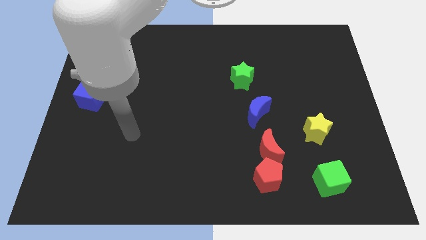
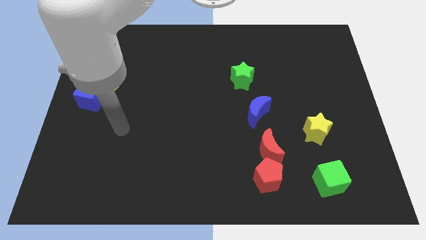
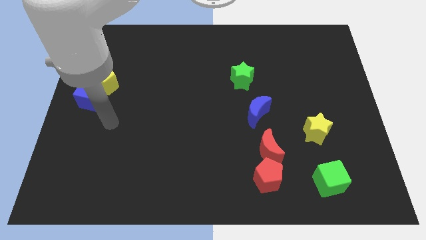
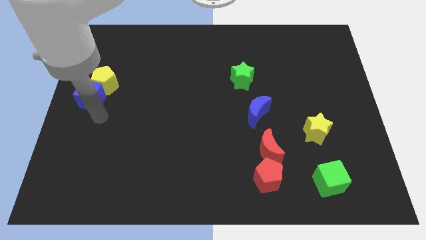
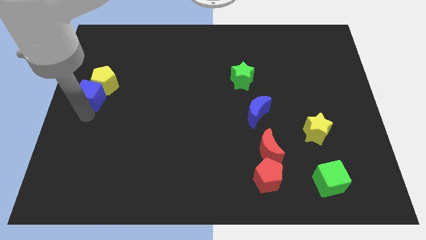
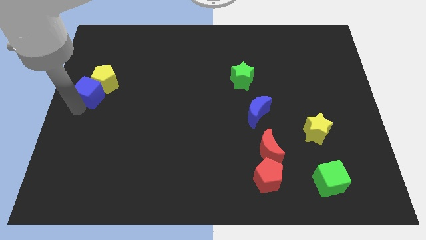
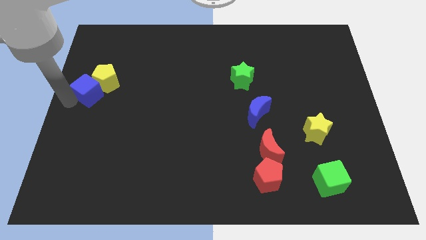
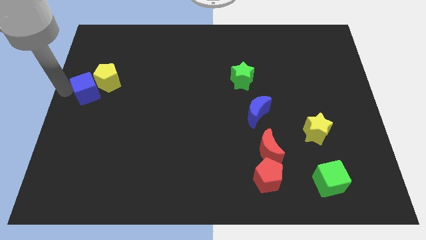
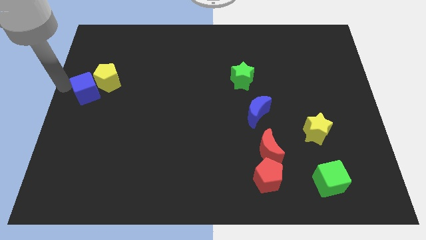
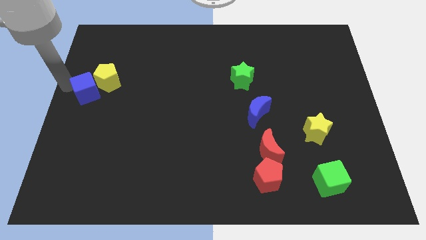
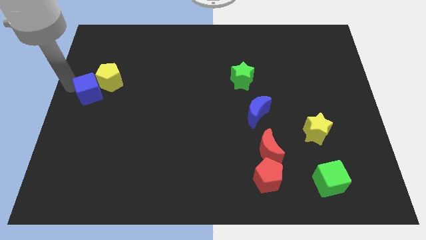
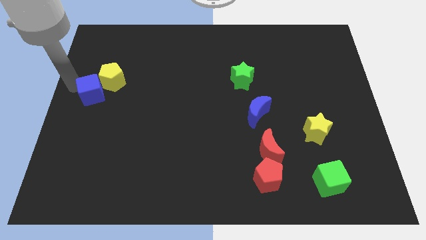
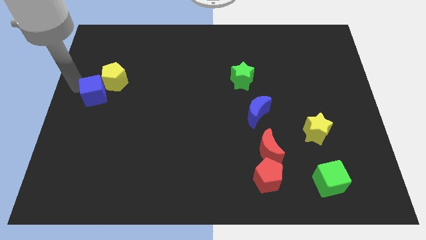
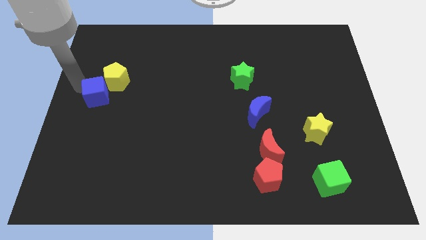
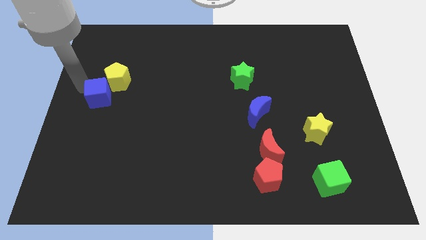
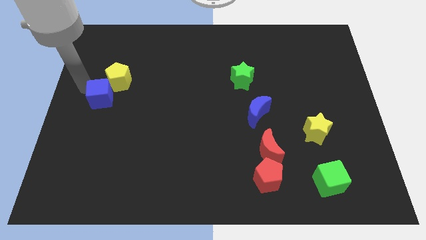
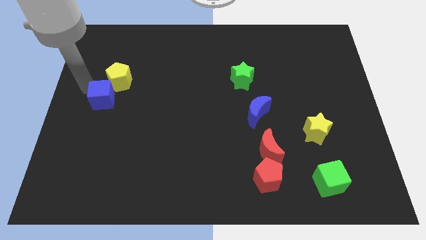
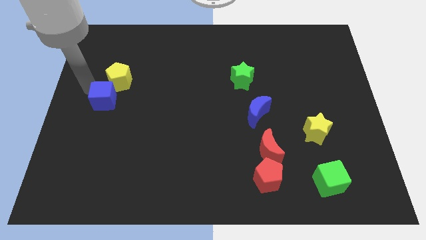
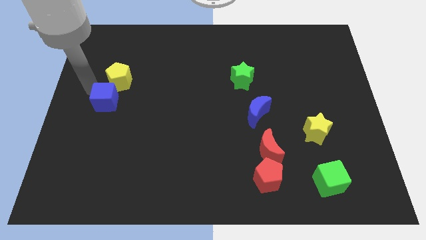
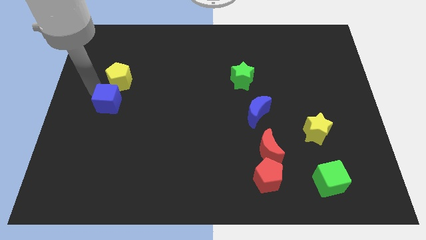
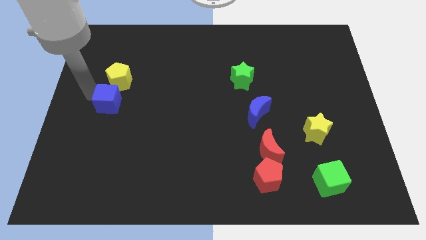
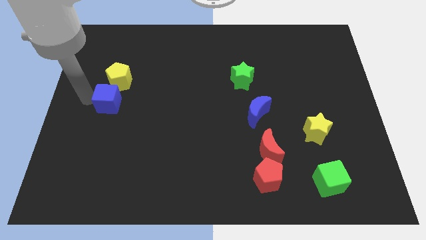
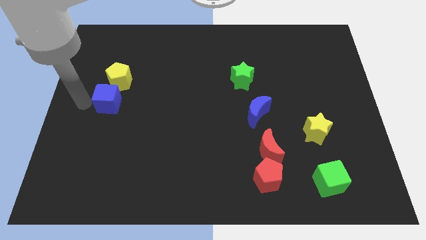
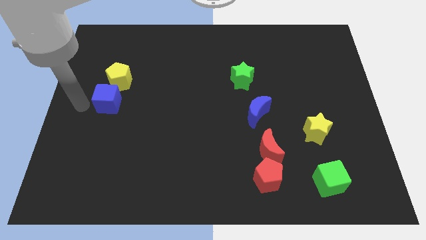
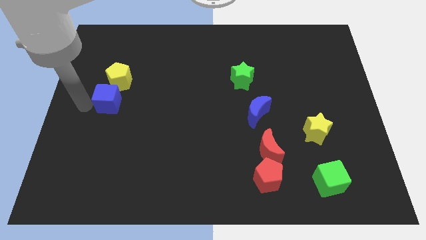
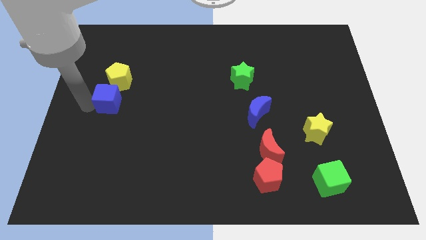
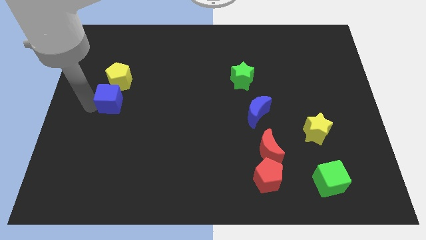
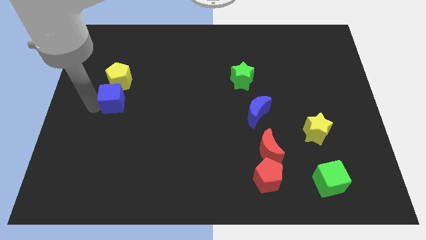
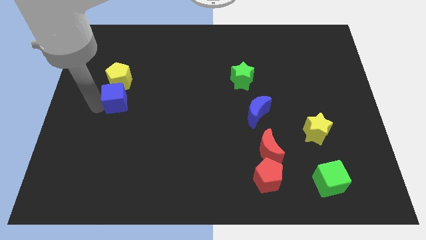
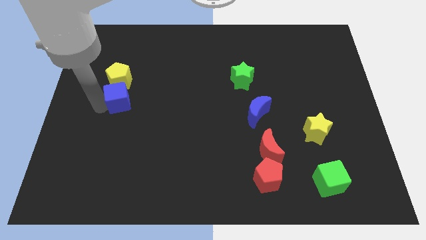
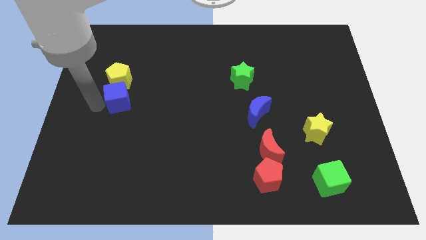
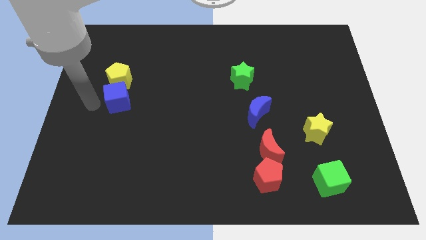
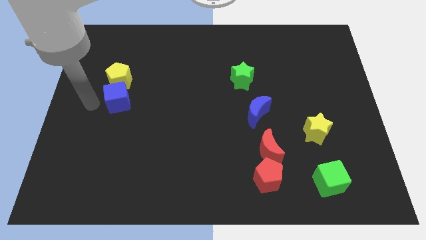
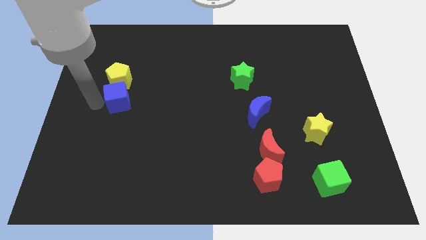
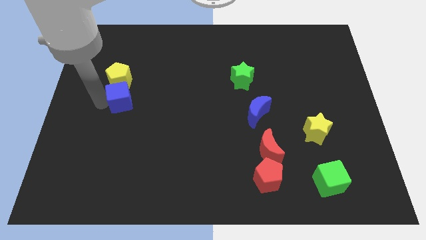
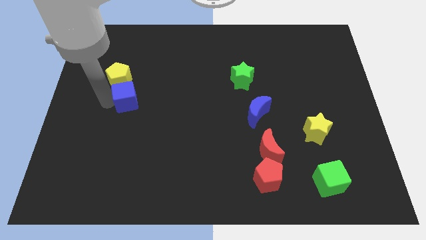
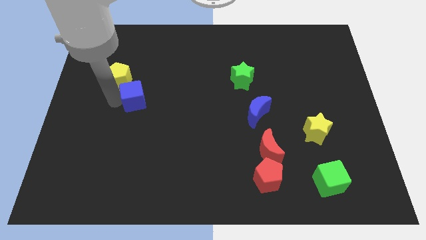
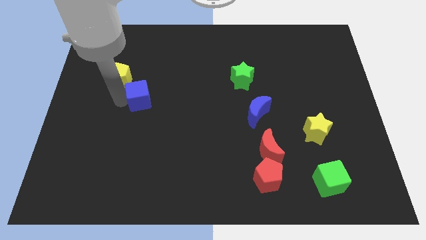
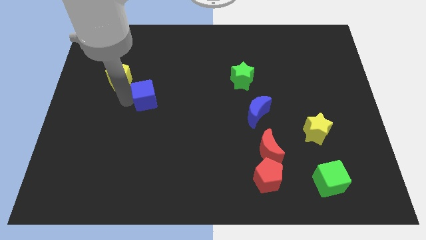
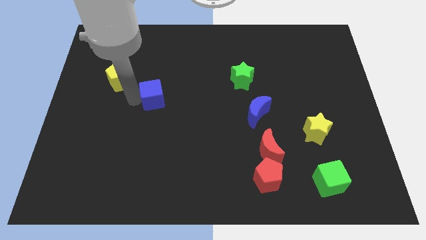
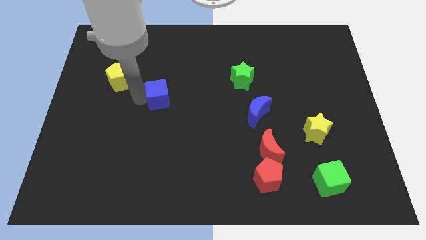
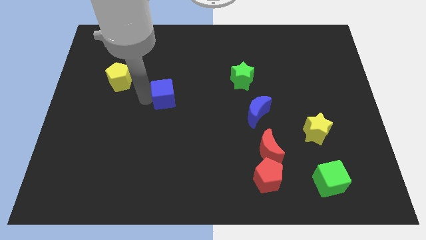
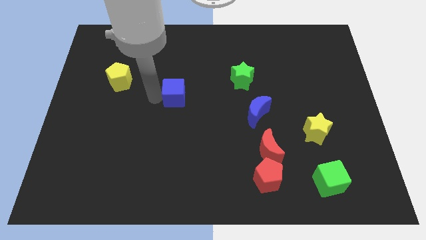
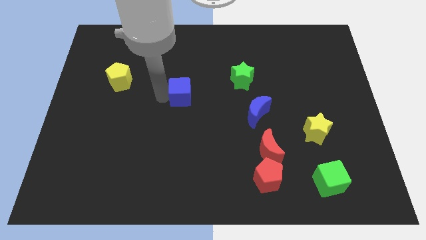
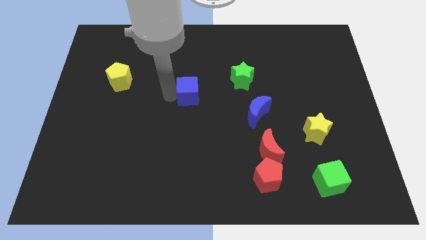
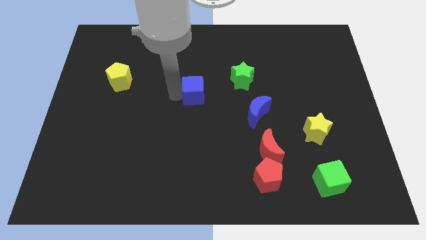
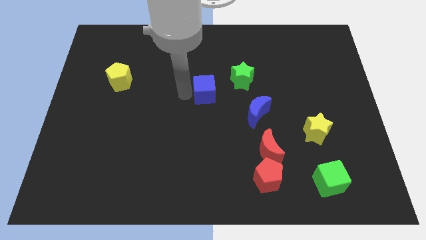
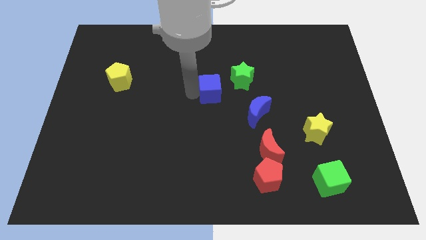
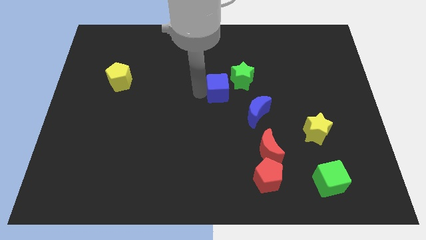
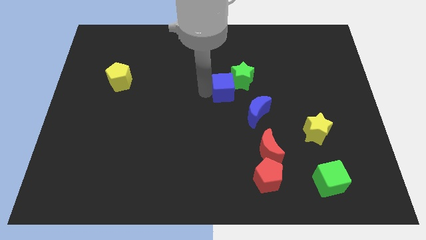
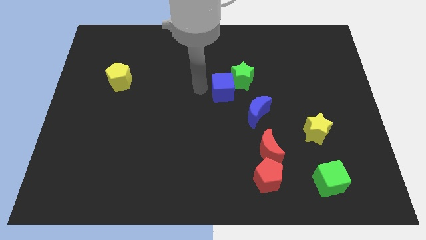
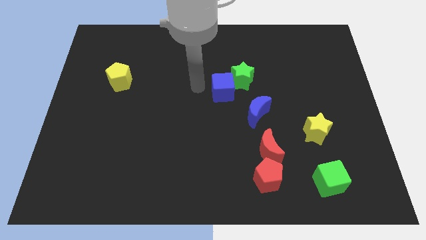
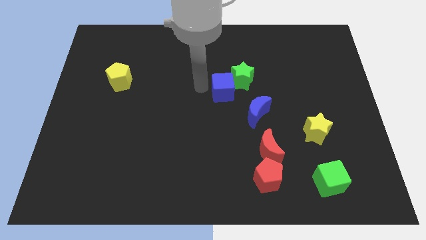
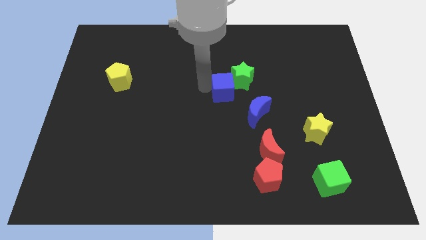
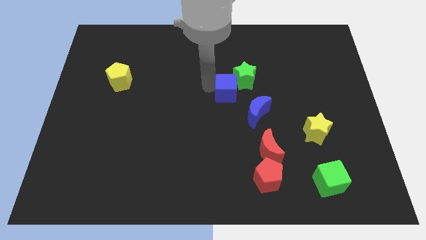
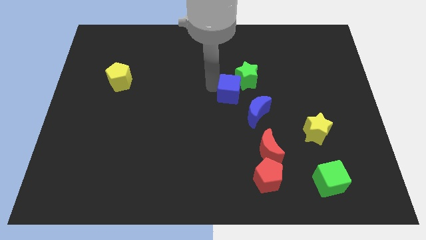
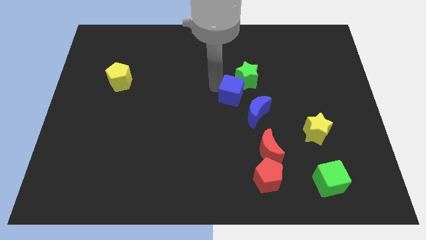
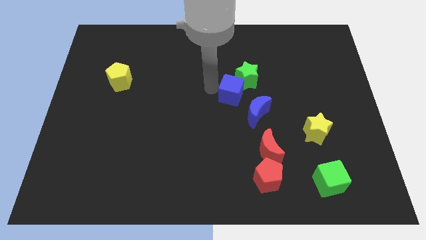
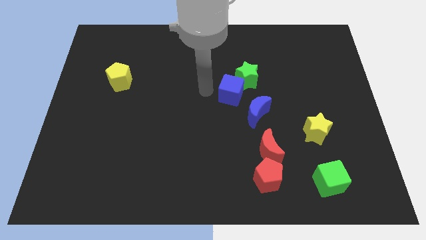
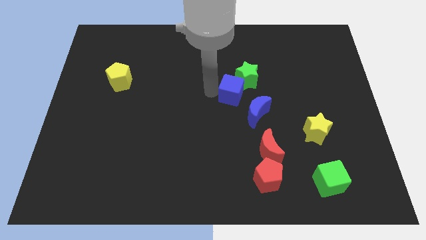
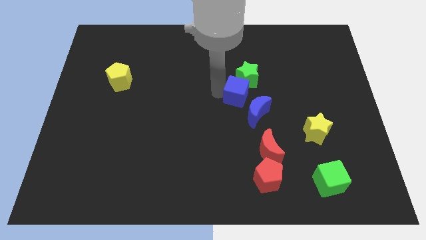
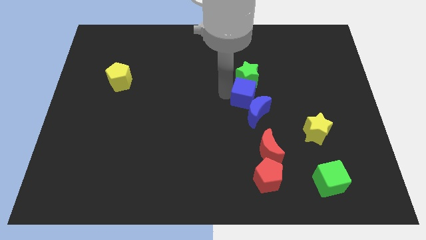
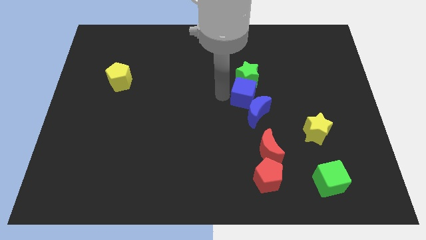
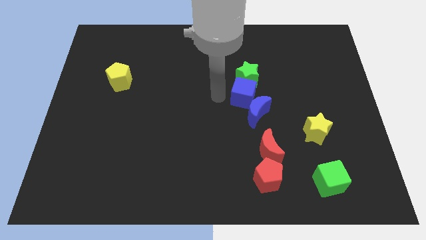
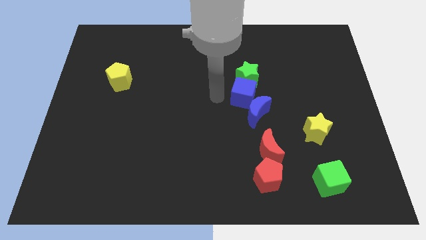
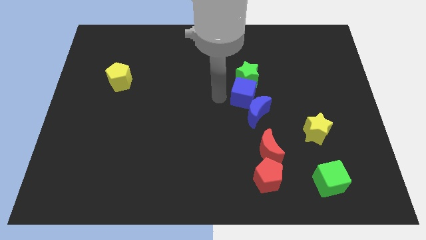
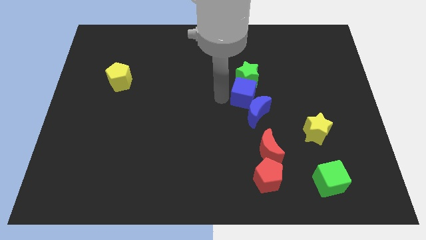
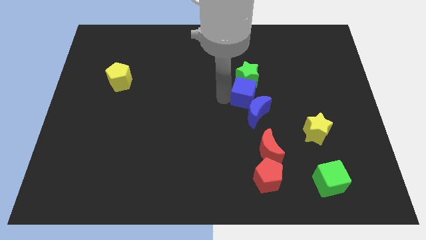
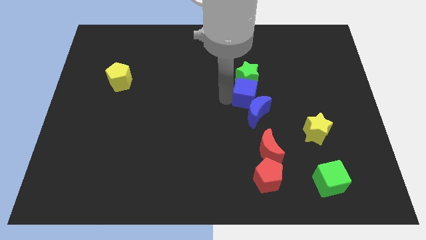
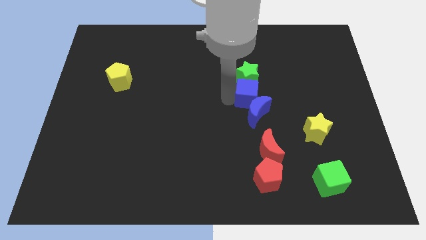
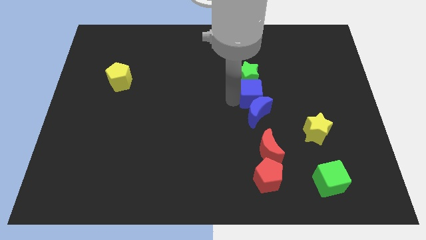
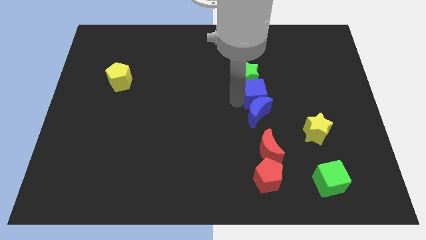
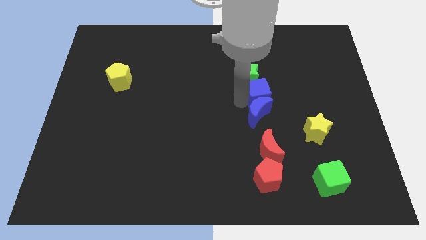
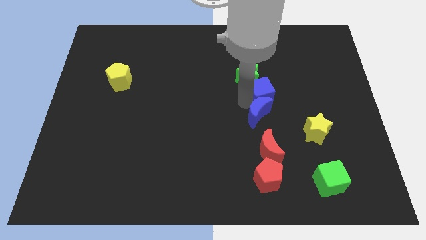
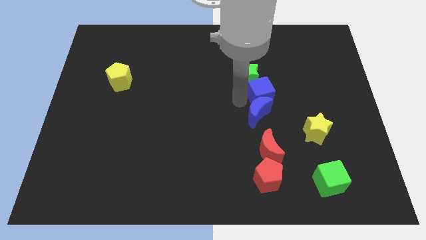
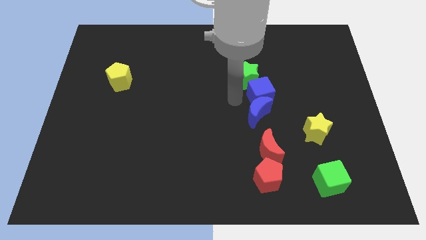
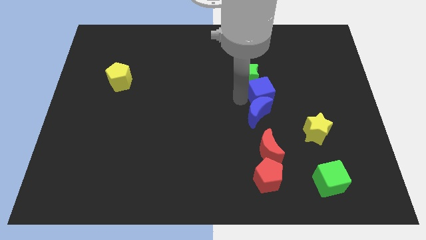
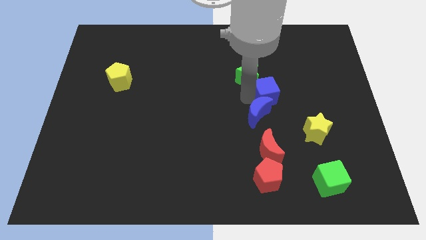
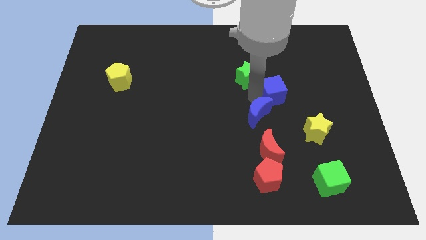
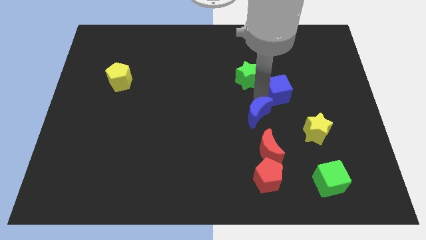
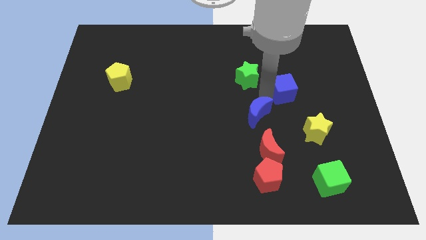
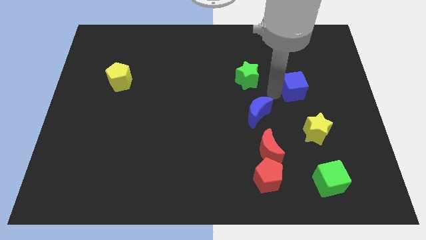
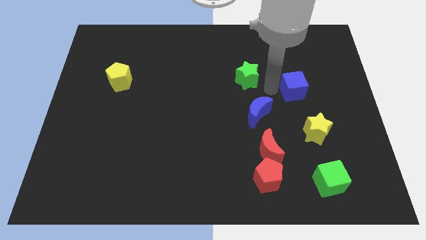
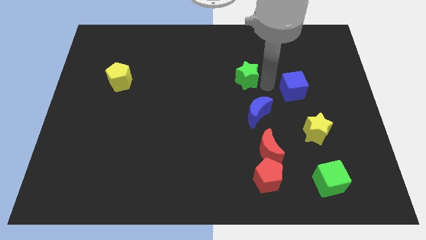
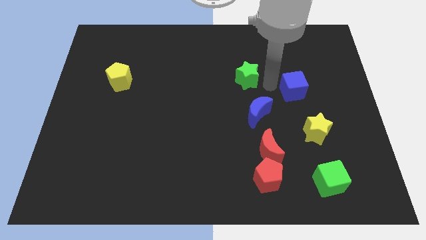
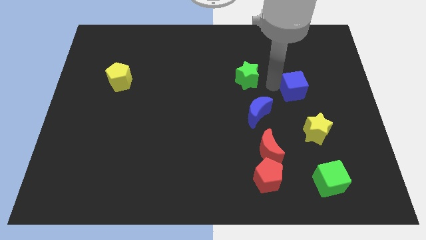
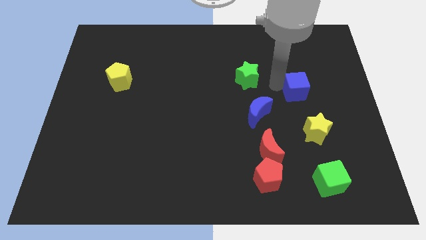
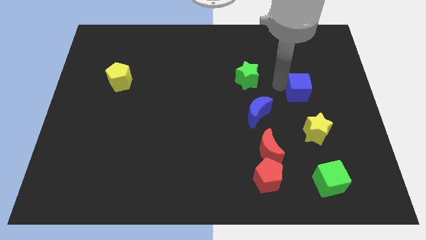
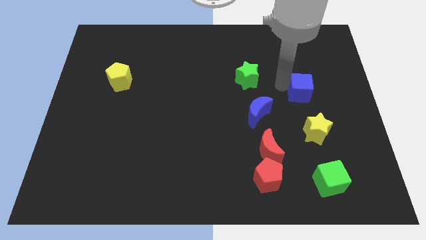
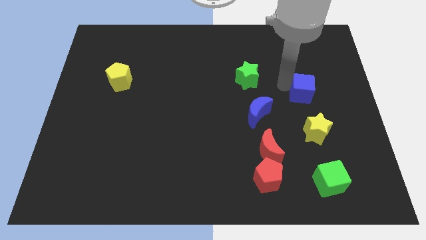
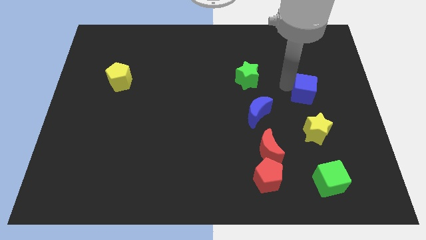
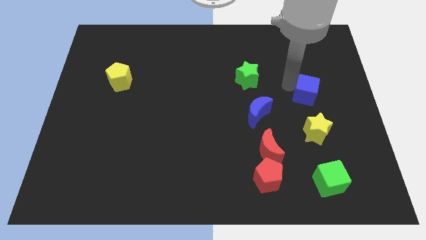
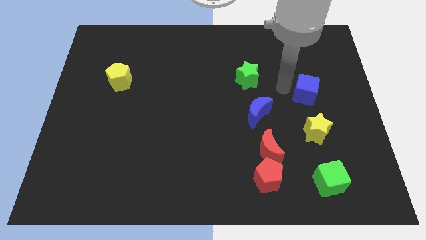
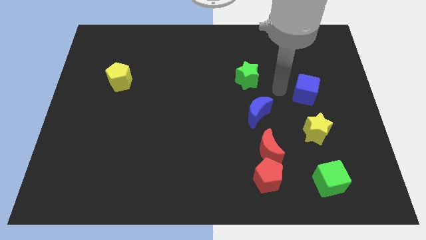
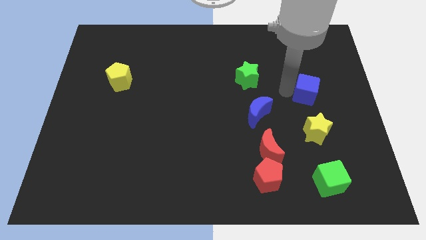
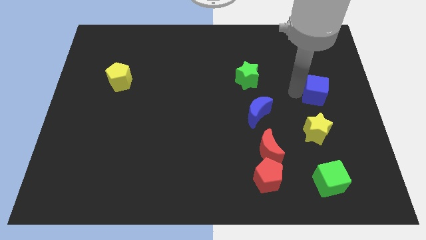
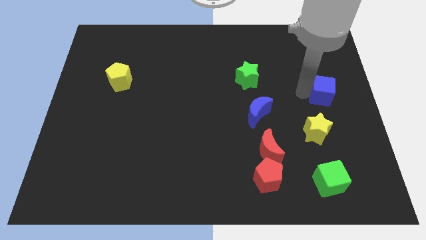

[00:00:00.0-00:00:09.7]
move the blue cube to the center right
